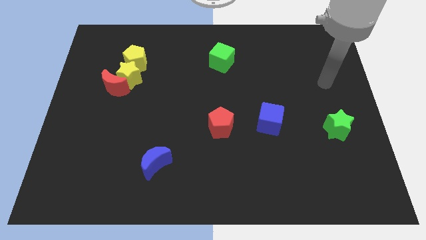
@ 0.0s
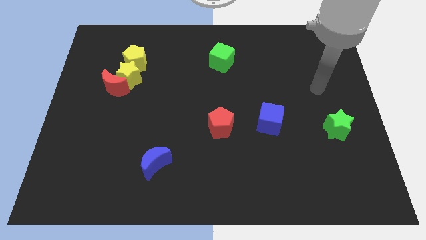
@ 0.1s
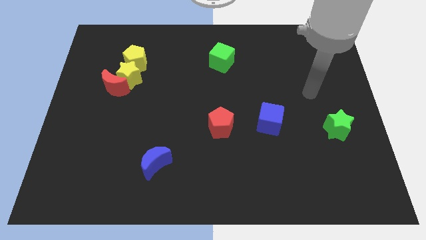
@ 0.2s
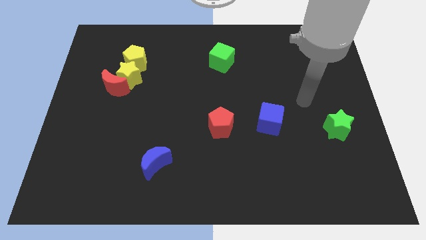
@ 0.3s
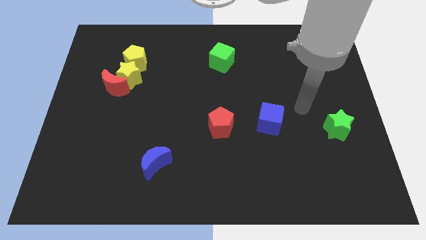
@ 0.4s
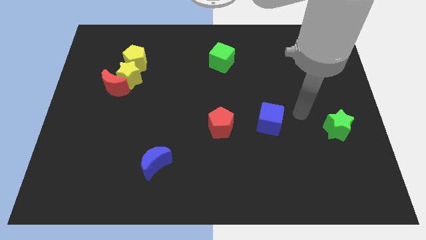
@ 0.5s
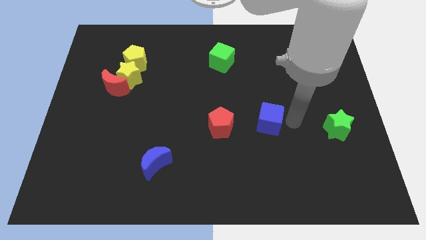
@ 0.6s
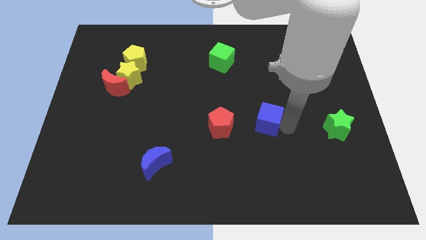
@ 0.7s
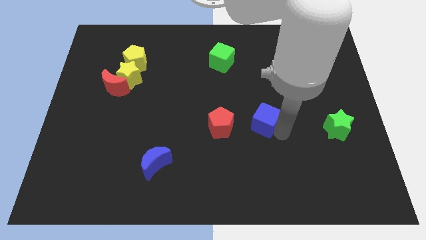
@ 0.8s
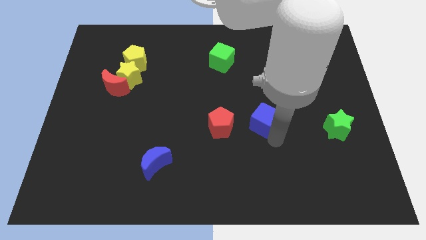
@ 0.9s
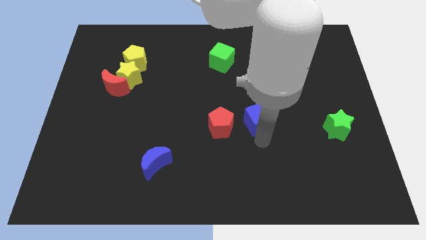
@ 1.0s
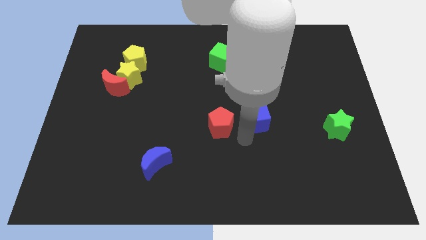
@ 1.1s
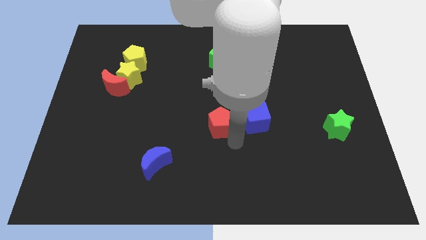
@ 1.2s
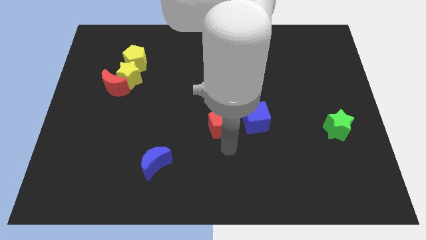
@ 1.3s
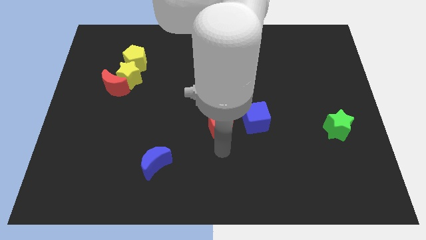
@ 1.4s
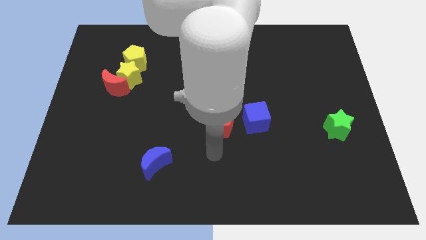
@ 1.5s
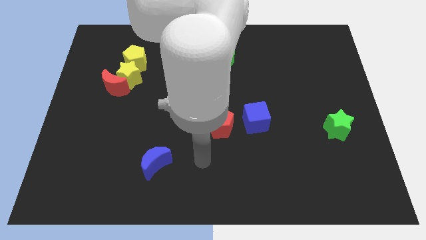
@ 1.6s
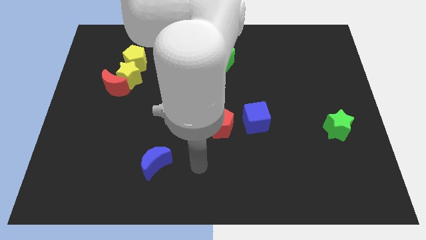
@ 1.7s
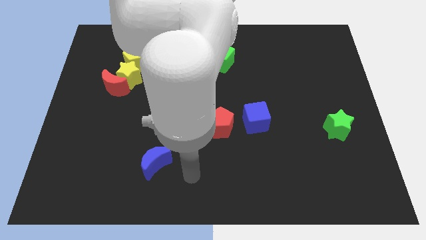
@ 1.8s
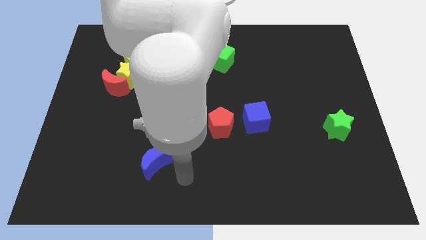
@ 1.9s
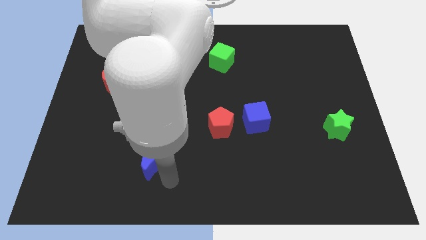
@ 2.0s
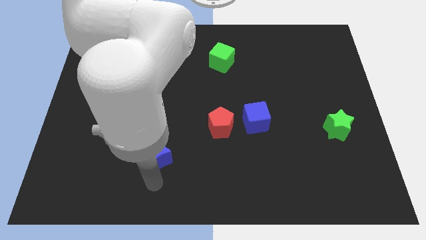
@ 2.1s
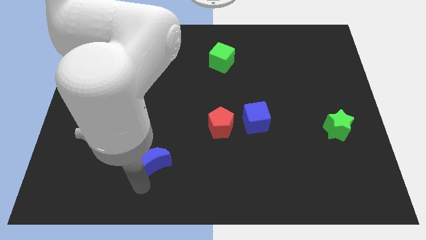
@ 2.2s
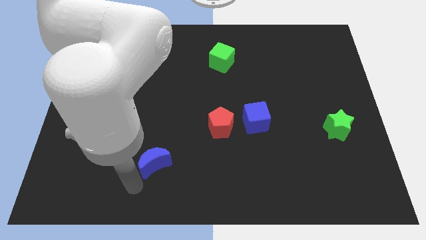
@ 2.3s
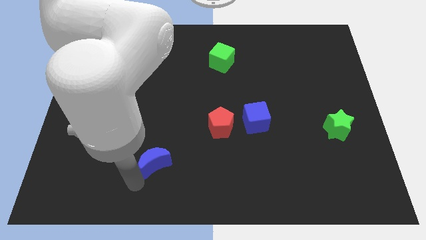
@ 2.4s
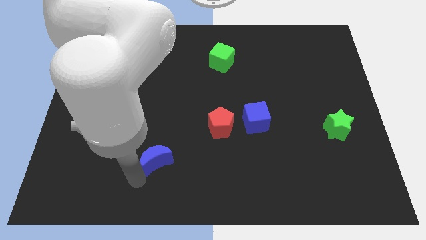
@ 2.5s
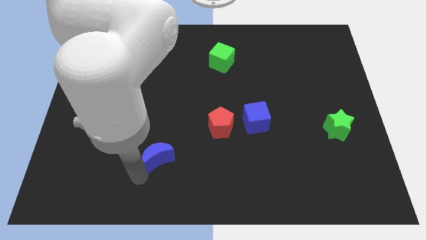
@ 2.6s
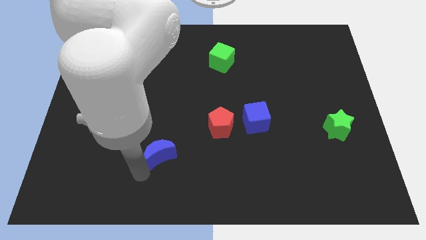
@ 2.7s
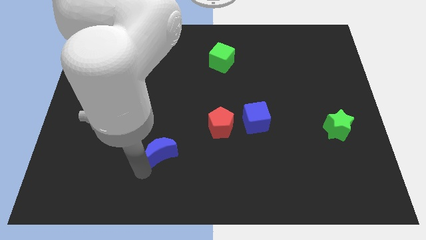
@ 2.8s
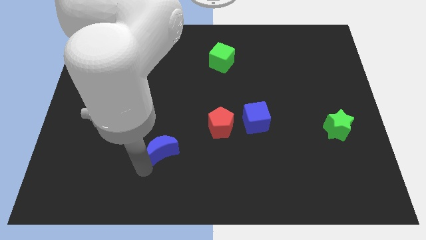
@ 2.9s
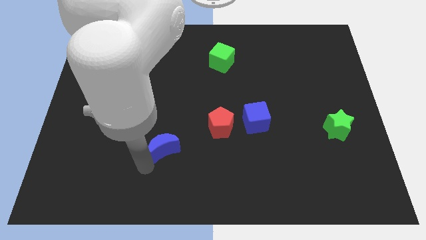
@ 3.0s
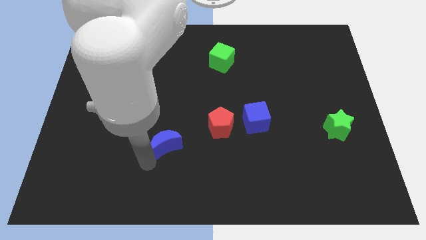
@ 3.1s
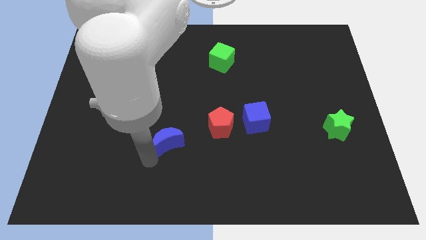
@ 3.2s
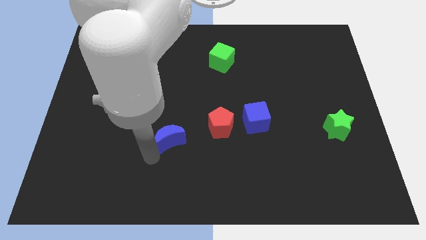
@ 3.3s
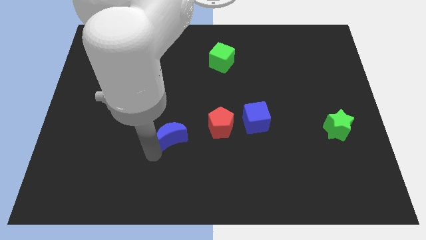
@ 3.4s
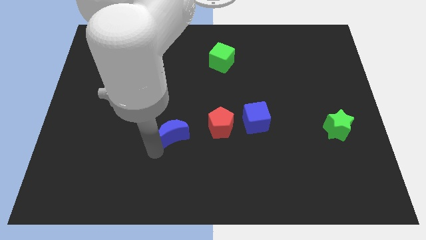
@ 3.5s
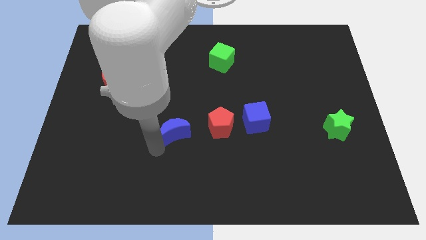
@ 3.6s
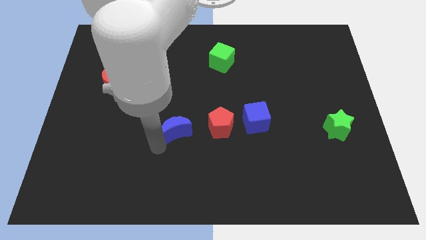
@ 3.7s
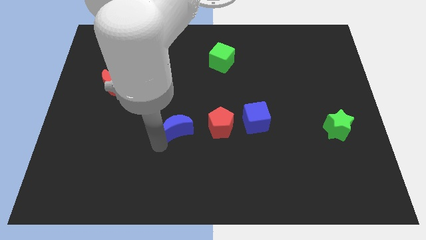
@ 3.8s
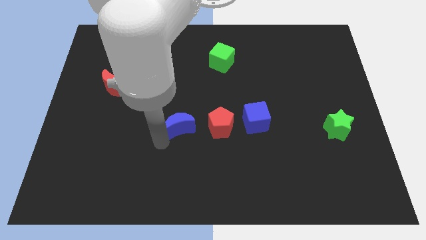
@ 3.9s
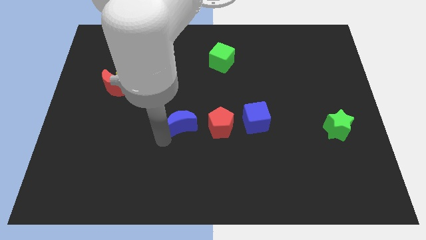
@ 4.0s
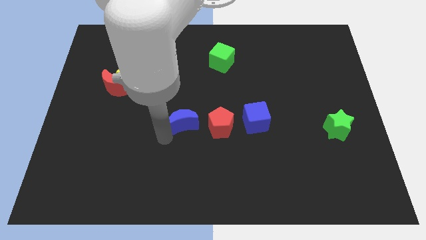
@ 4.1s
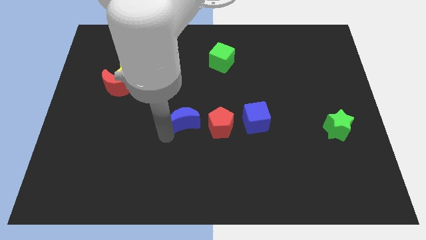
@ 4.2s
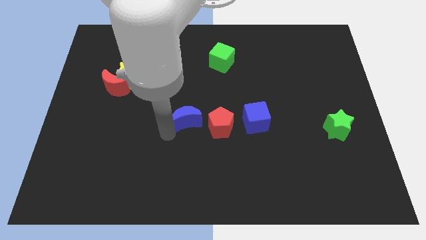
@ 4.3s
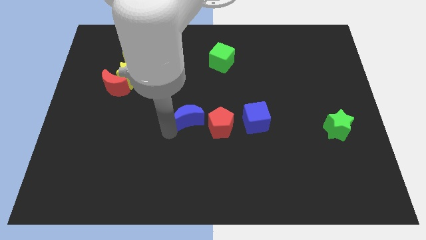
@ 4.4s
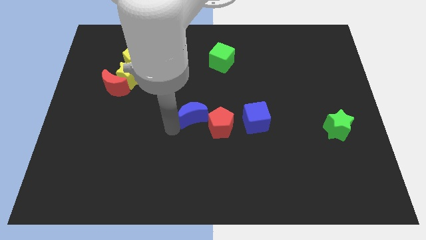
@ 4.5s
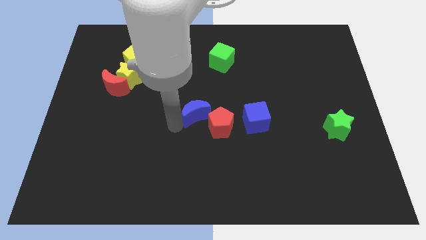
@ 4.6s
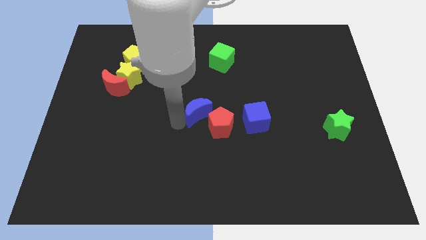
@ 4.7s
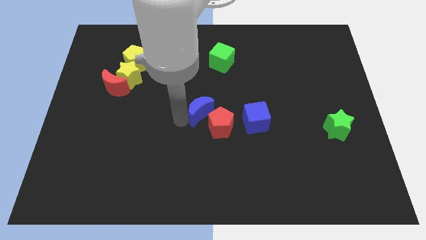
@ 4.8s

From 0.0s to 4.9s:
move the blue moon to the top side of the red pentagon

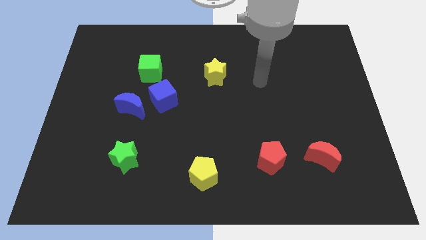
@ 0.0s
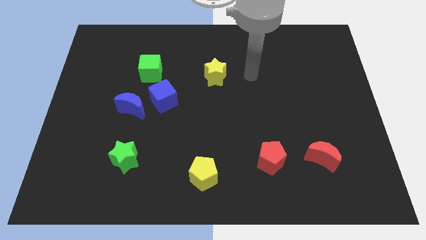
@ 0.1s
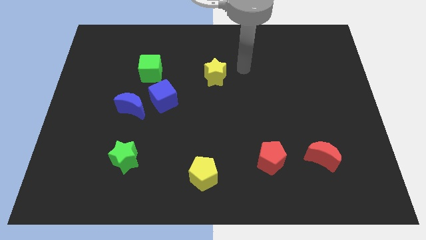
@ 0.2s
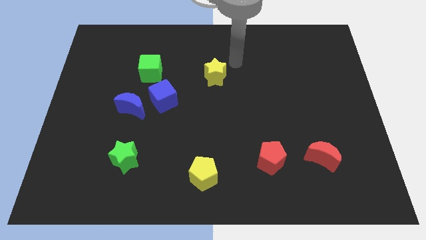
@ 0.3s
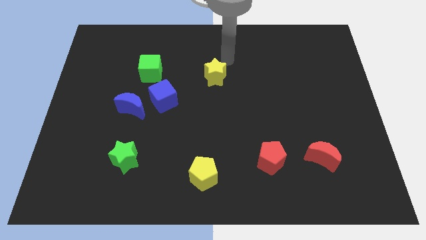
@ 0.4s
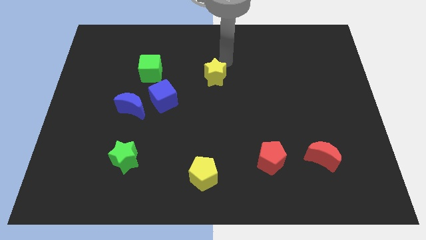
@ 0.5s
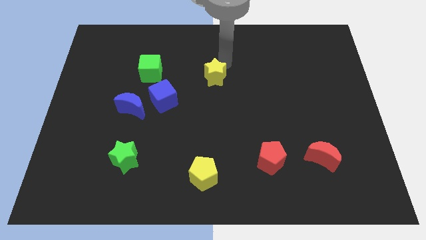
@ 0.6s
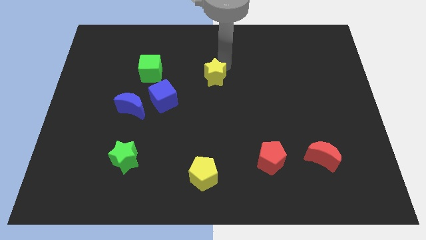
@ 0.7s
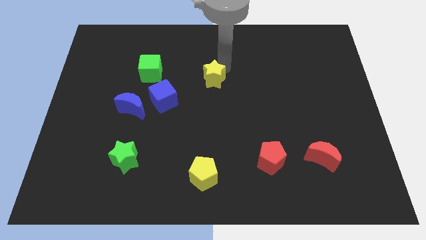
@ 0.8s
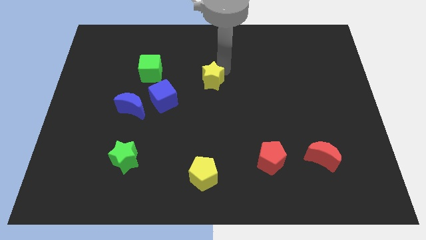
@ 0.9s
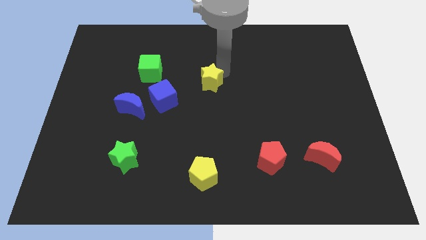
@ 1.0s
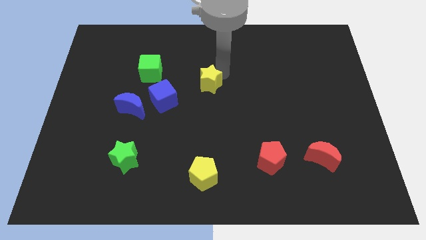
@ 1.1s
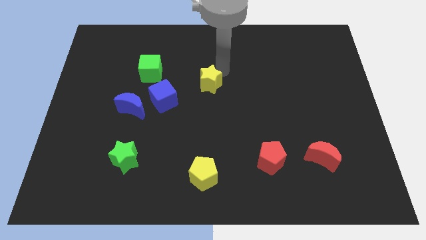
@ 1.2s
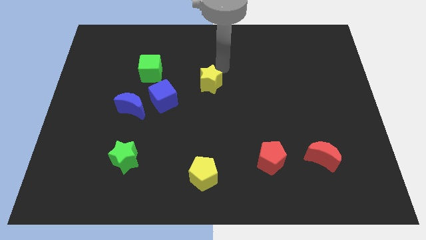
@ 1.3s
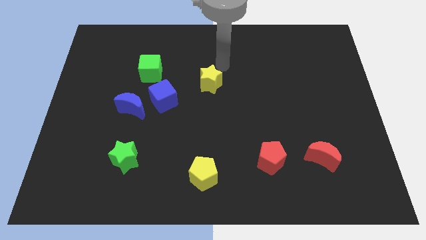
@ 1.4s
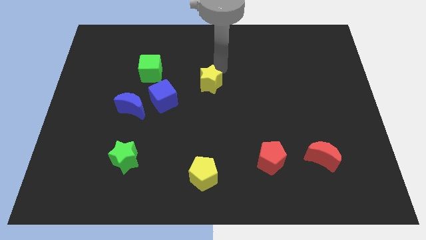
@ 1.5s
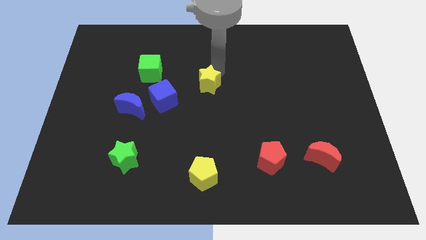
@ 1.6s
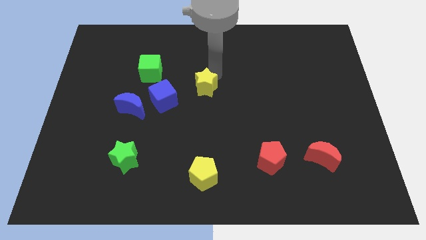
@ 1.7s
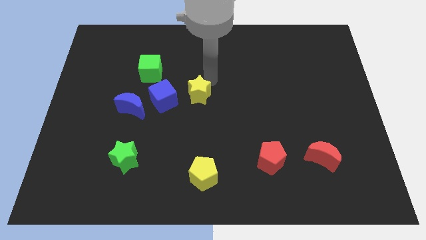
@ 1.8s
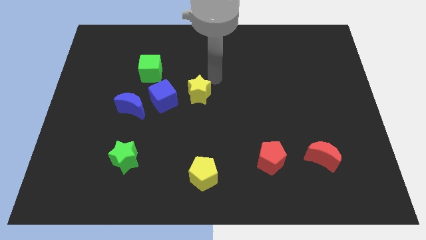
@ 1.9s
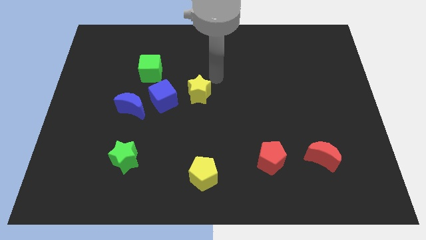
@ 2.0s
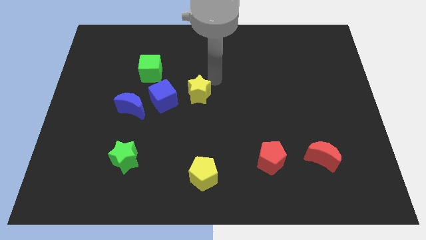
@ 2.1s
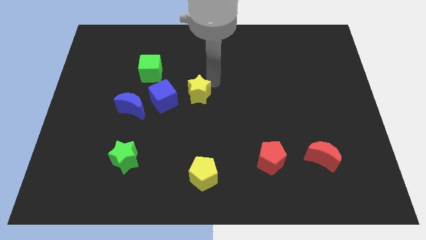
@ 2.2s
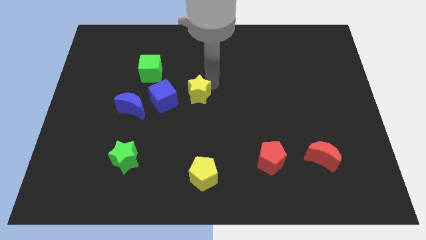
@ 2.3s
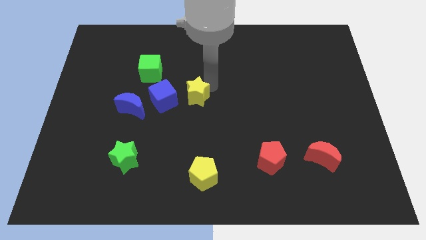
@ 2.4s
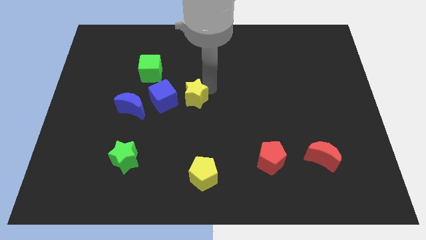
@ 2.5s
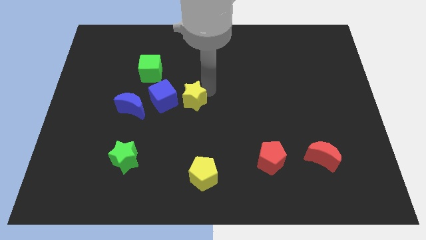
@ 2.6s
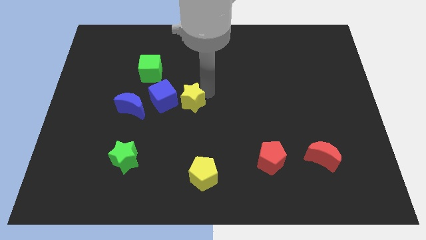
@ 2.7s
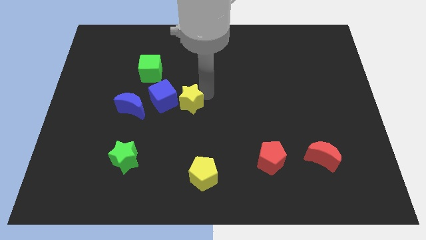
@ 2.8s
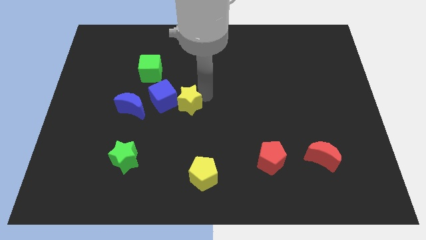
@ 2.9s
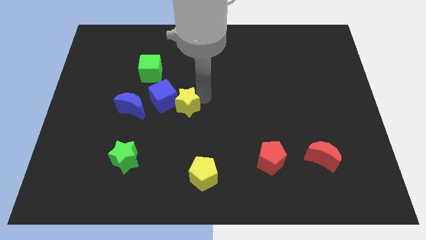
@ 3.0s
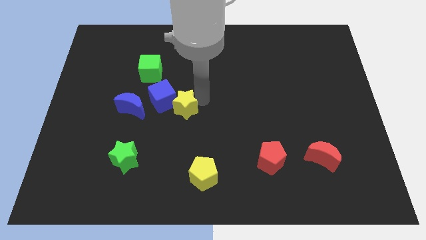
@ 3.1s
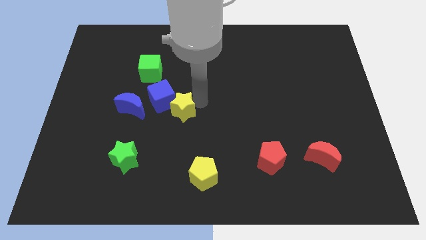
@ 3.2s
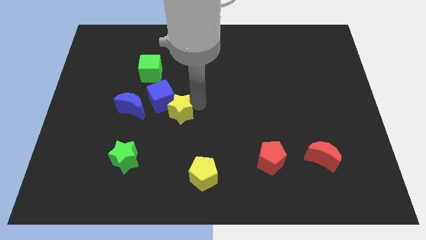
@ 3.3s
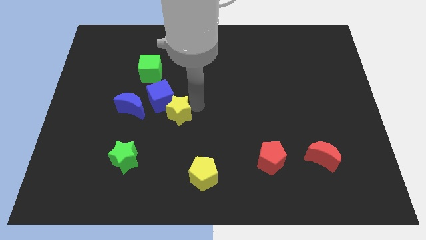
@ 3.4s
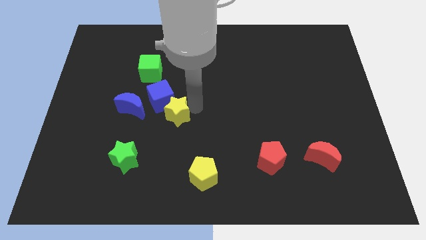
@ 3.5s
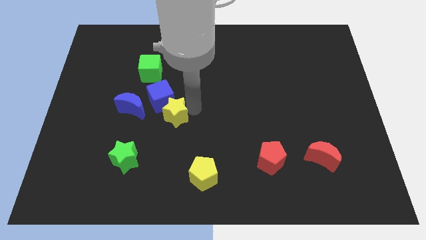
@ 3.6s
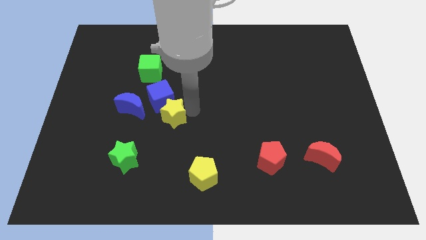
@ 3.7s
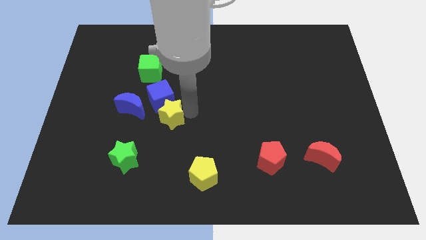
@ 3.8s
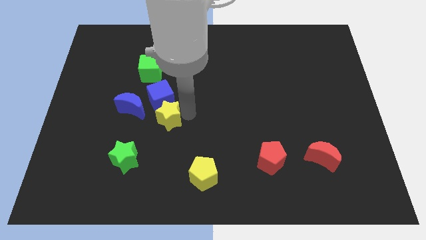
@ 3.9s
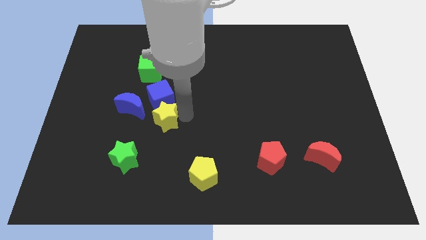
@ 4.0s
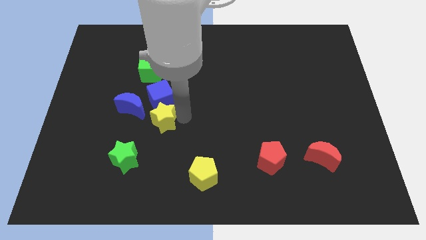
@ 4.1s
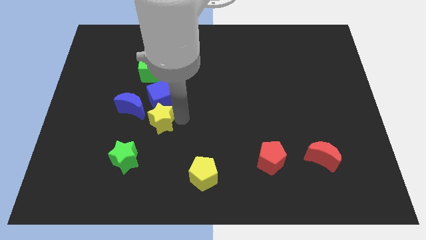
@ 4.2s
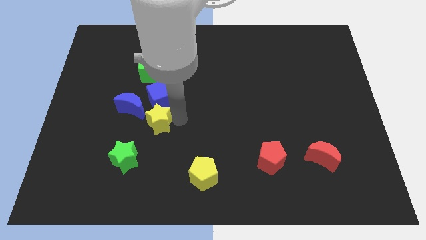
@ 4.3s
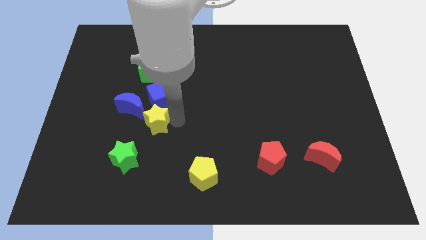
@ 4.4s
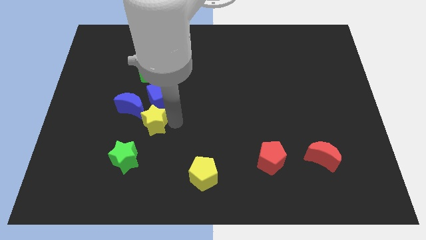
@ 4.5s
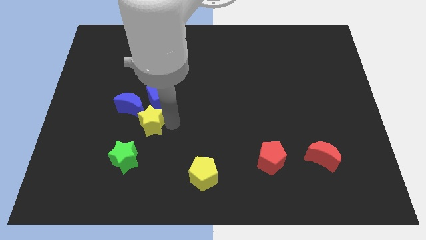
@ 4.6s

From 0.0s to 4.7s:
put the yellow star to the bottom side of the green cube
